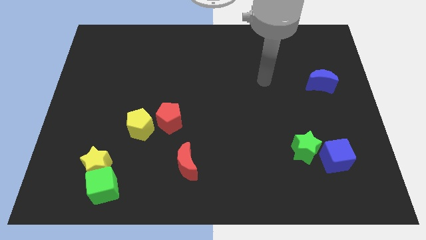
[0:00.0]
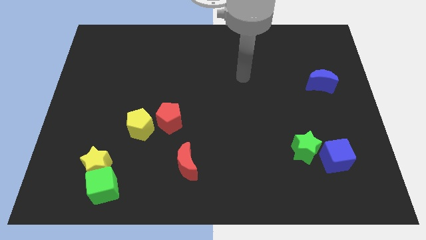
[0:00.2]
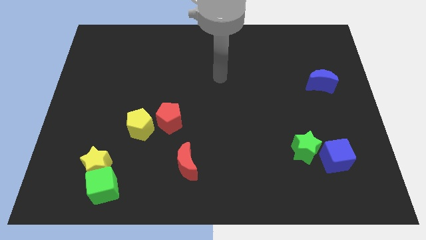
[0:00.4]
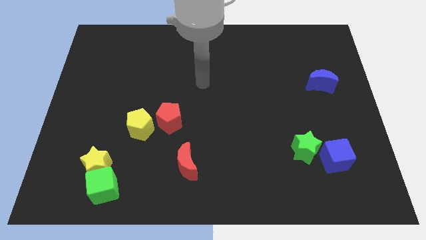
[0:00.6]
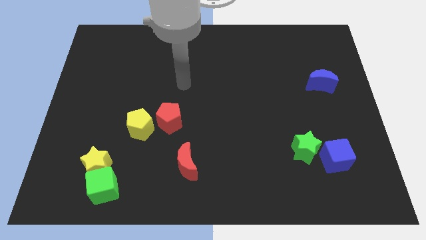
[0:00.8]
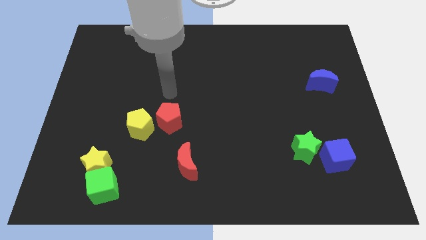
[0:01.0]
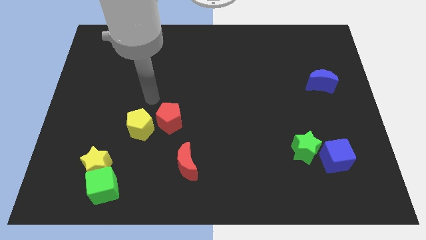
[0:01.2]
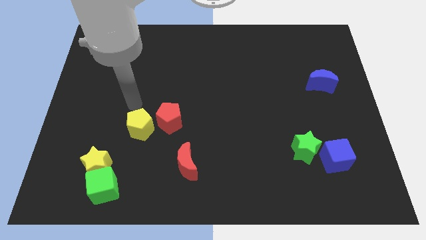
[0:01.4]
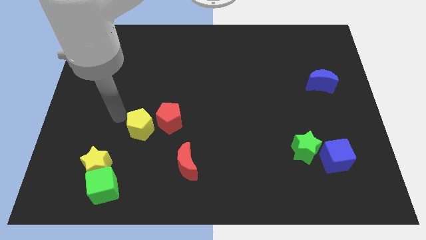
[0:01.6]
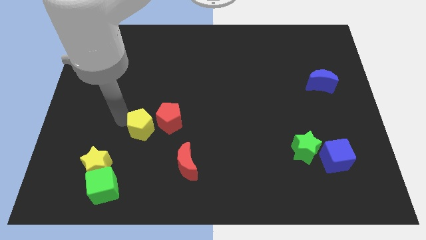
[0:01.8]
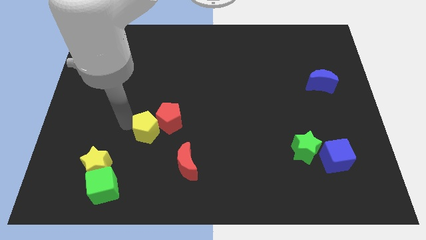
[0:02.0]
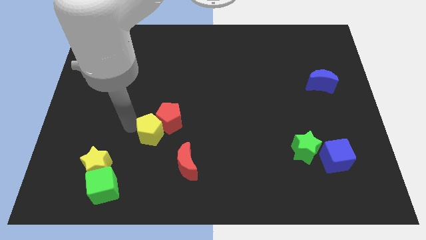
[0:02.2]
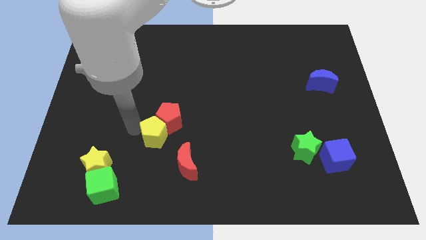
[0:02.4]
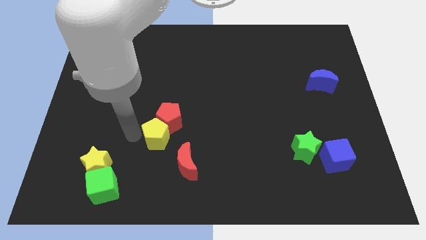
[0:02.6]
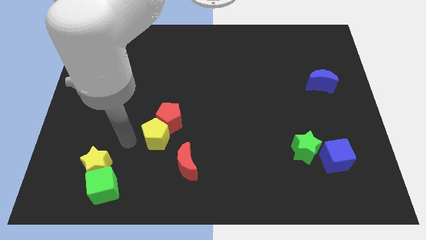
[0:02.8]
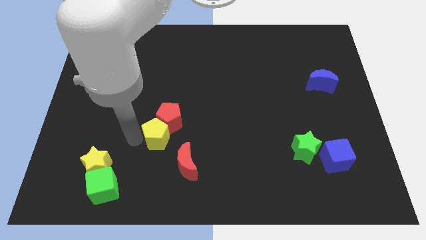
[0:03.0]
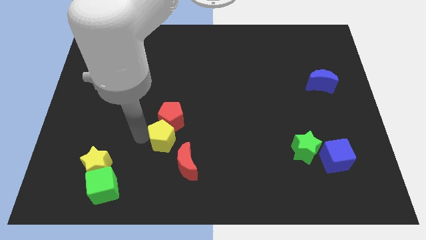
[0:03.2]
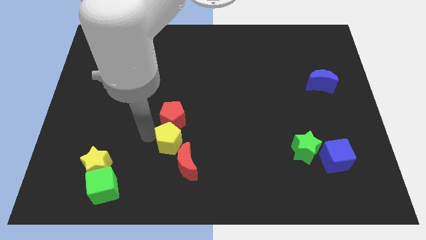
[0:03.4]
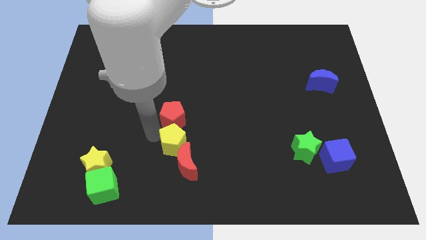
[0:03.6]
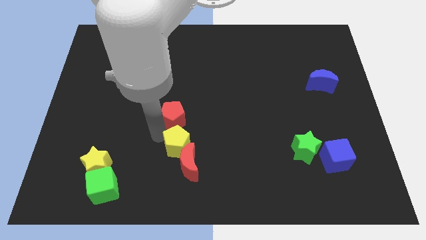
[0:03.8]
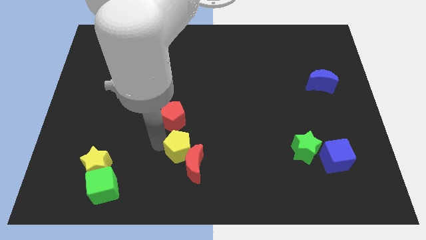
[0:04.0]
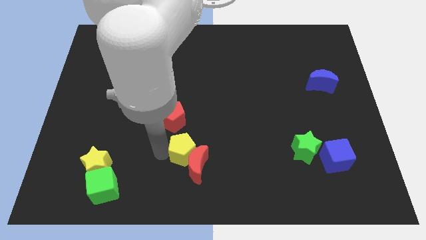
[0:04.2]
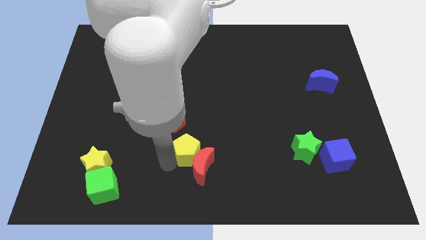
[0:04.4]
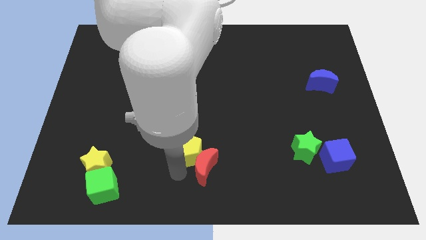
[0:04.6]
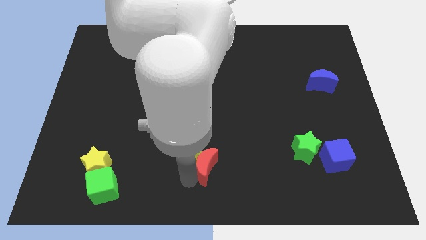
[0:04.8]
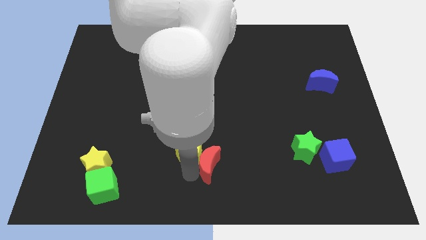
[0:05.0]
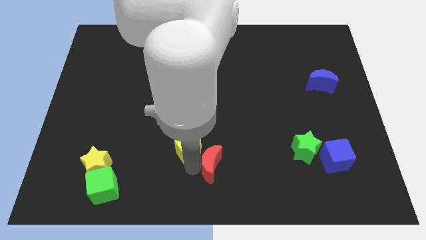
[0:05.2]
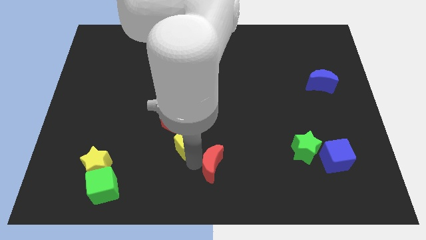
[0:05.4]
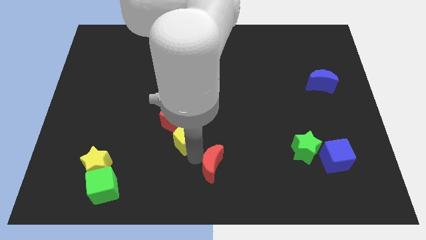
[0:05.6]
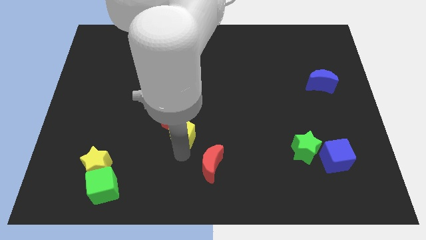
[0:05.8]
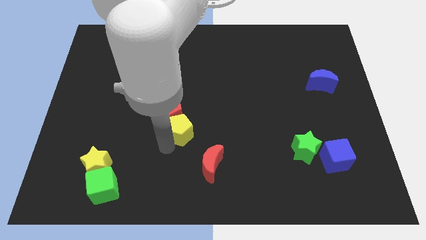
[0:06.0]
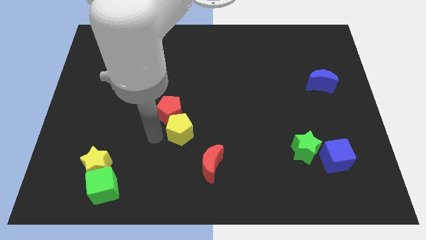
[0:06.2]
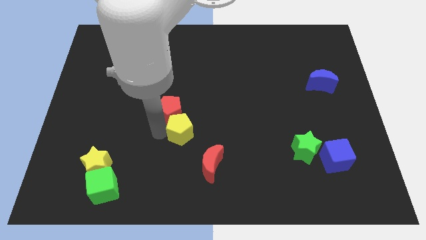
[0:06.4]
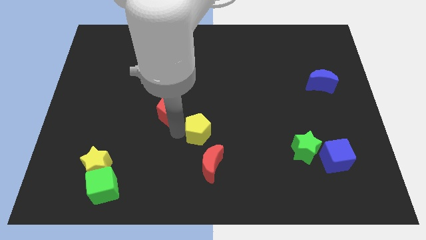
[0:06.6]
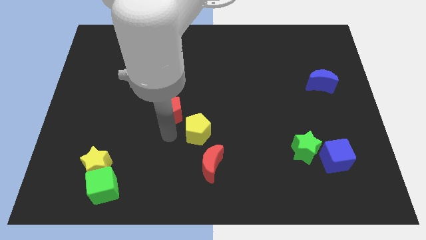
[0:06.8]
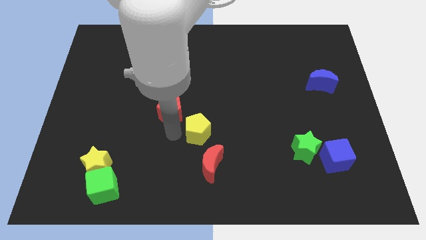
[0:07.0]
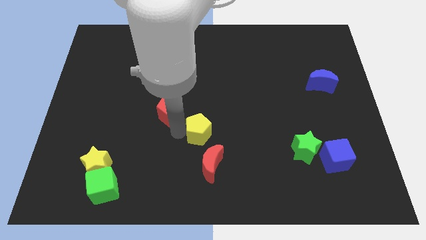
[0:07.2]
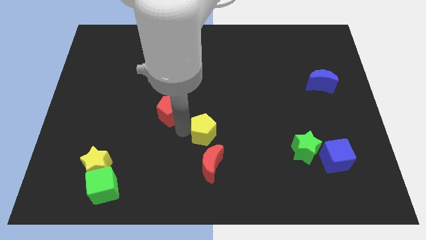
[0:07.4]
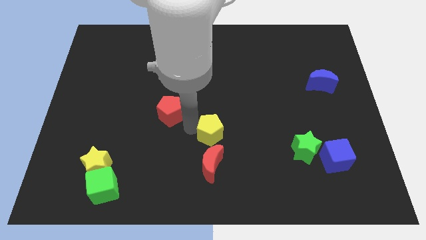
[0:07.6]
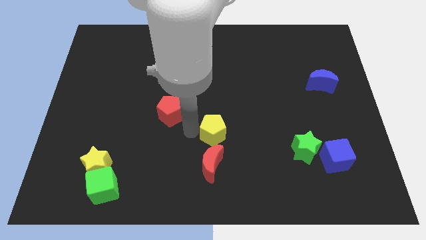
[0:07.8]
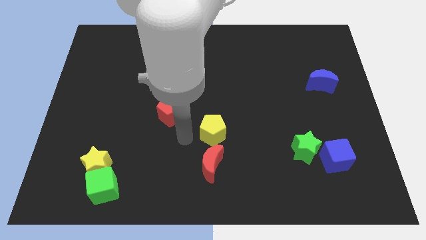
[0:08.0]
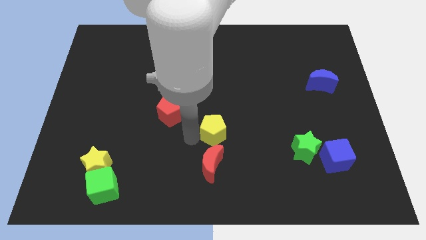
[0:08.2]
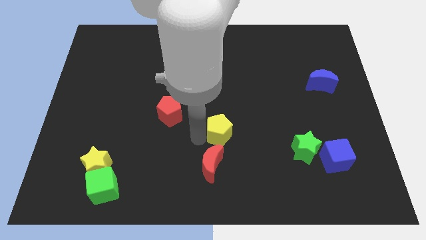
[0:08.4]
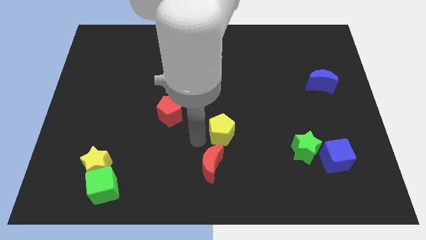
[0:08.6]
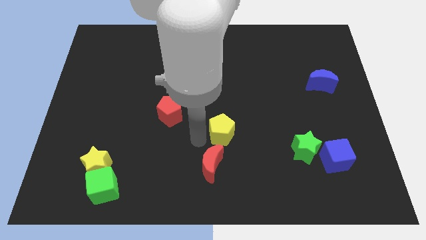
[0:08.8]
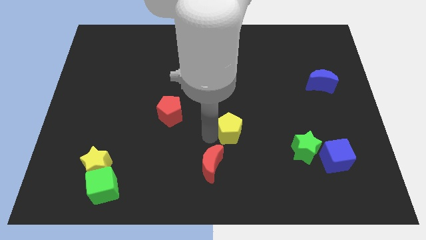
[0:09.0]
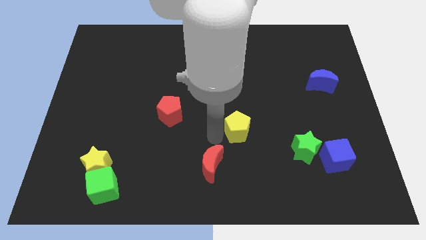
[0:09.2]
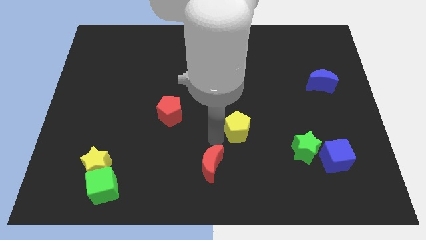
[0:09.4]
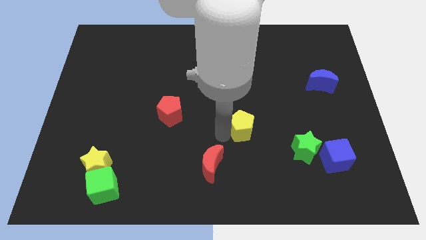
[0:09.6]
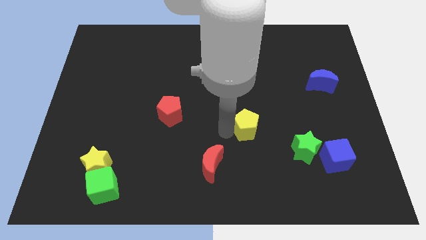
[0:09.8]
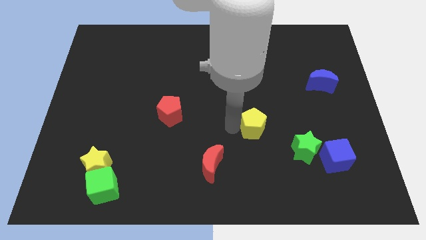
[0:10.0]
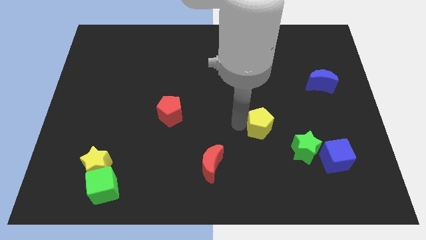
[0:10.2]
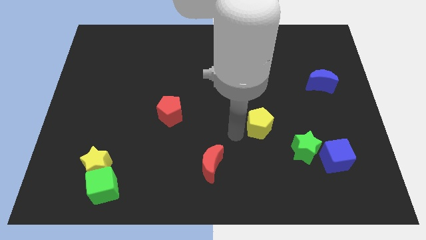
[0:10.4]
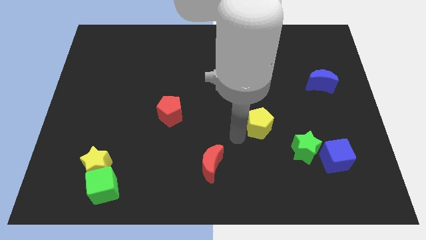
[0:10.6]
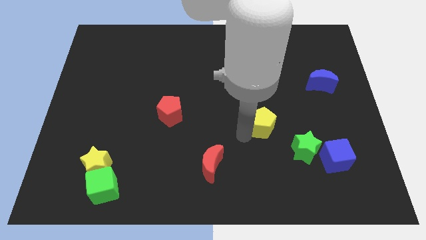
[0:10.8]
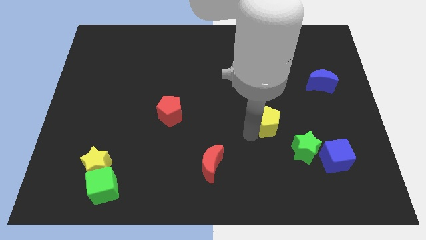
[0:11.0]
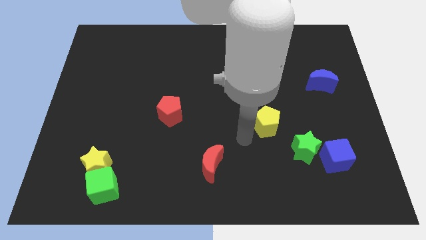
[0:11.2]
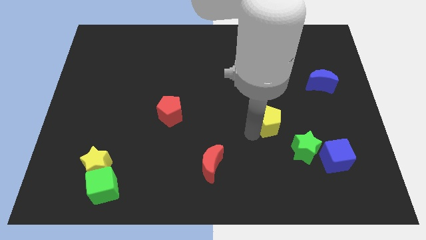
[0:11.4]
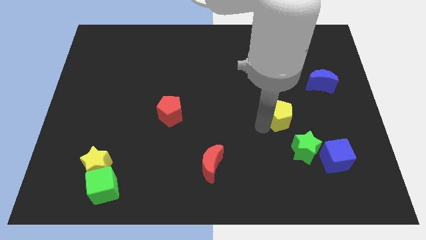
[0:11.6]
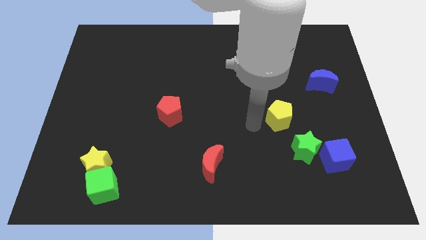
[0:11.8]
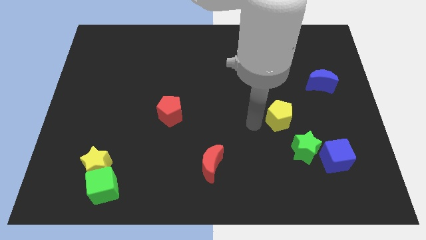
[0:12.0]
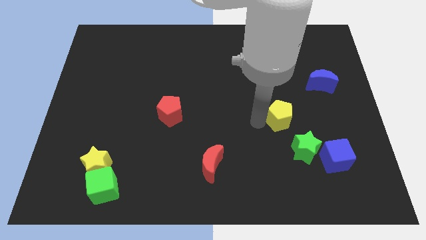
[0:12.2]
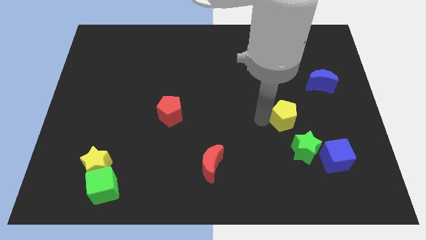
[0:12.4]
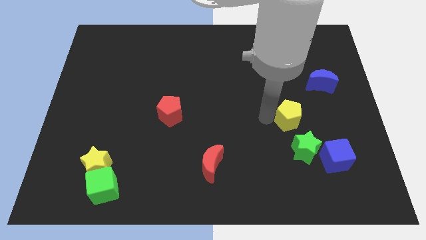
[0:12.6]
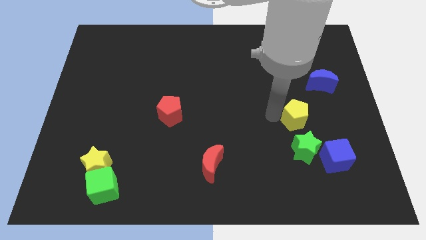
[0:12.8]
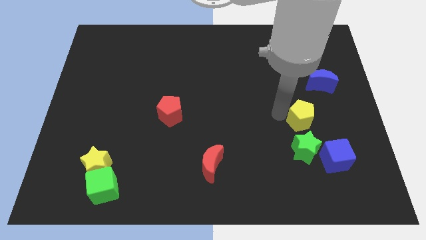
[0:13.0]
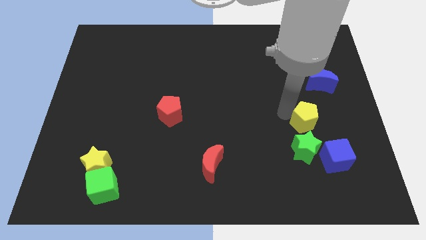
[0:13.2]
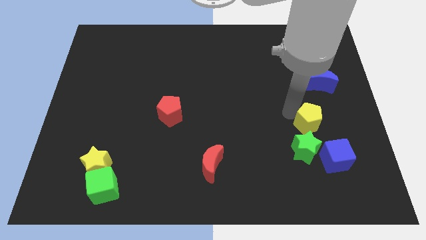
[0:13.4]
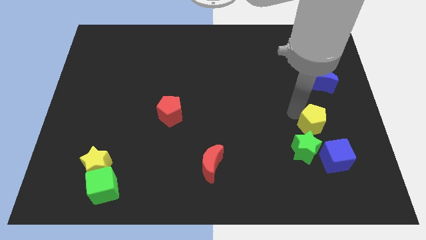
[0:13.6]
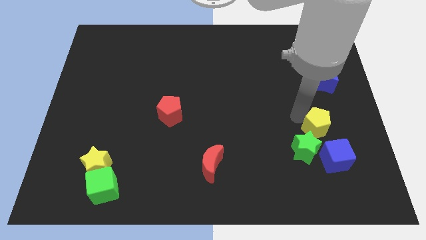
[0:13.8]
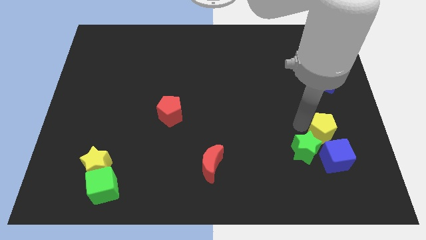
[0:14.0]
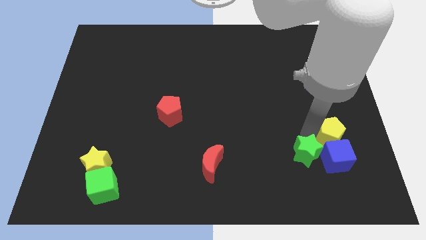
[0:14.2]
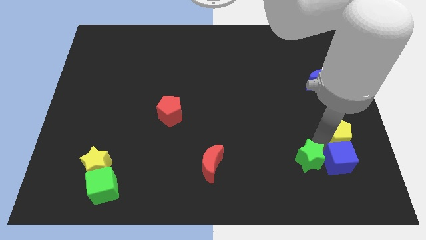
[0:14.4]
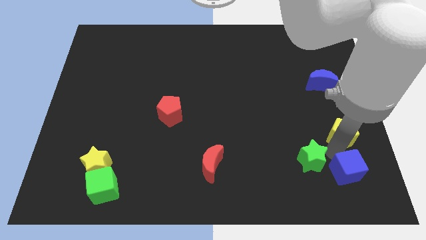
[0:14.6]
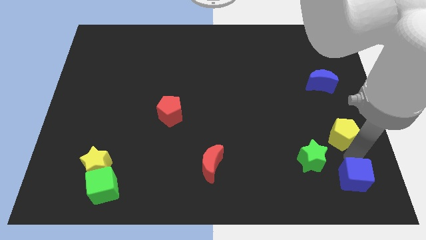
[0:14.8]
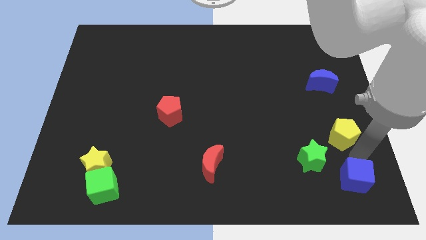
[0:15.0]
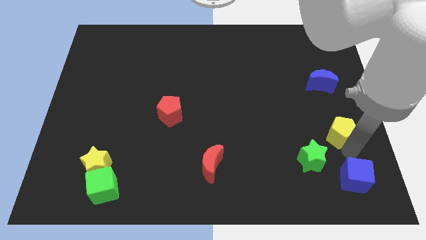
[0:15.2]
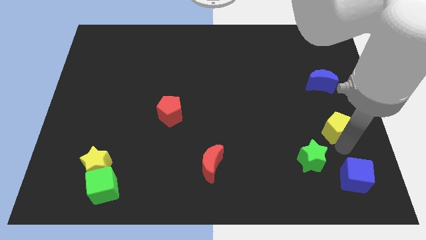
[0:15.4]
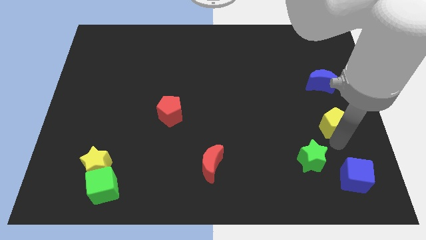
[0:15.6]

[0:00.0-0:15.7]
move the yellow pentagon to the right side of the board
